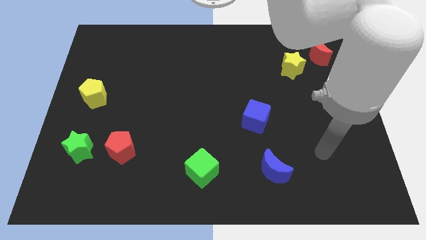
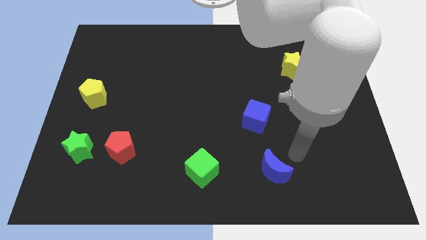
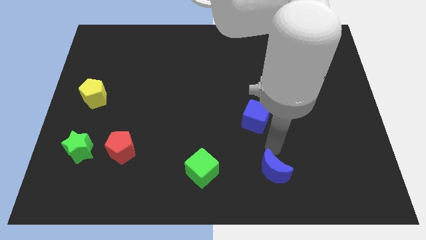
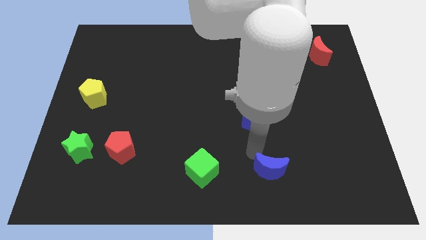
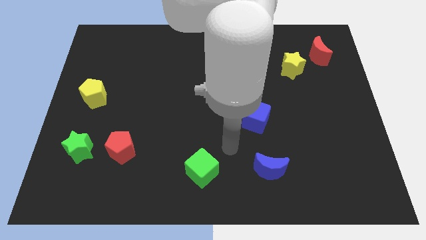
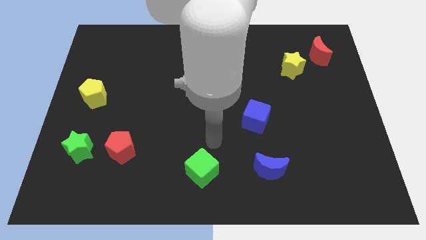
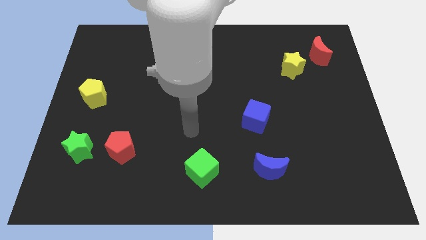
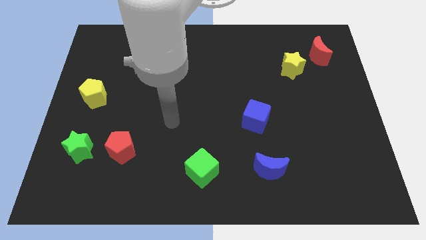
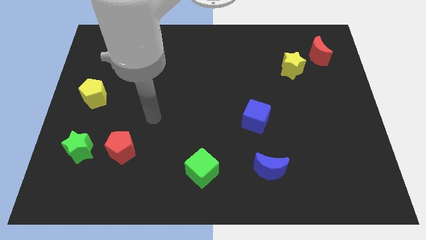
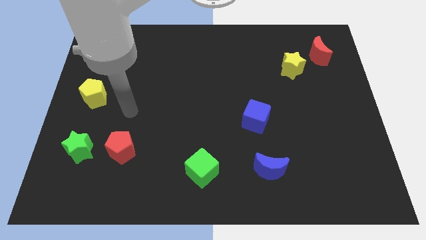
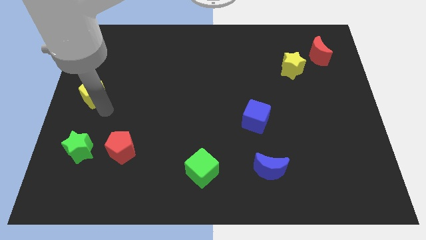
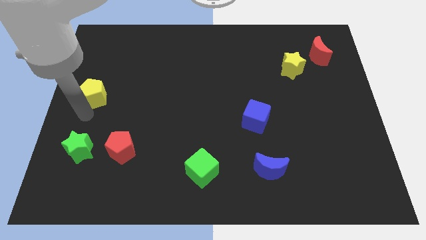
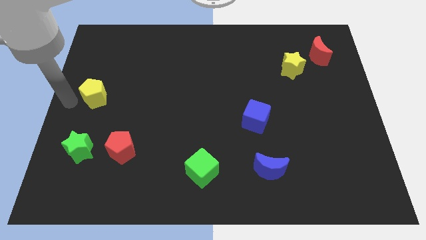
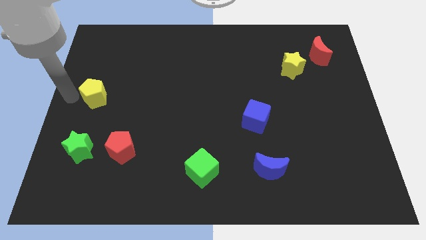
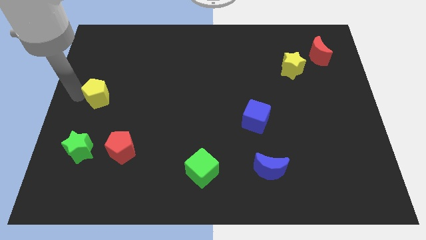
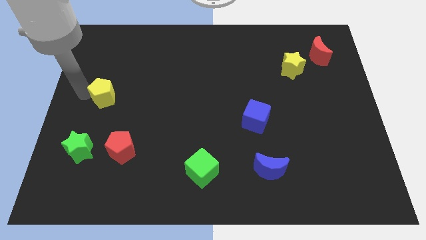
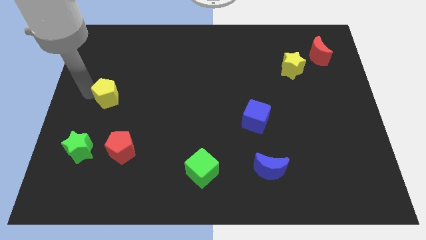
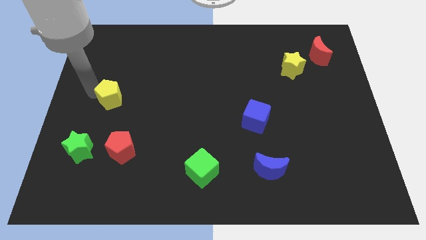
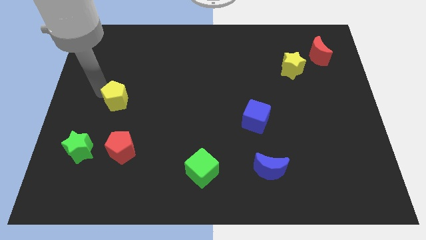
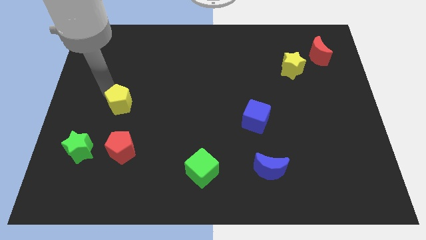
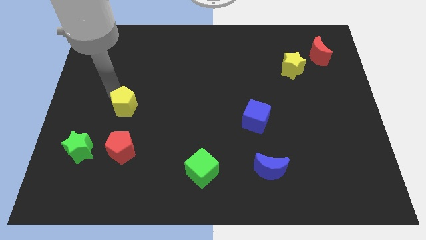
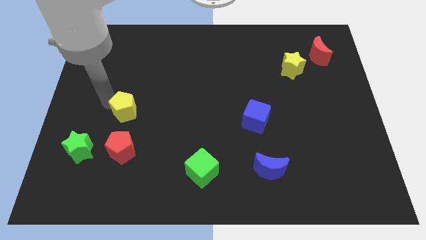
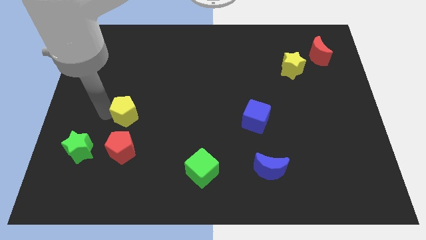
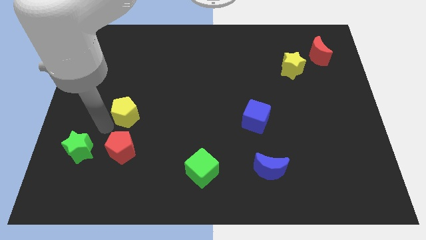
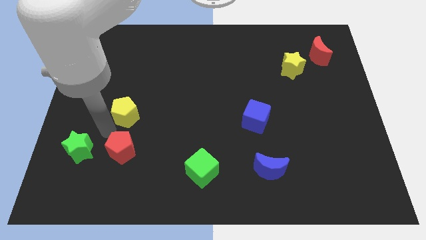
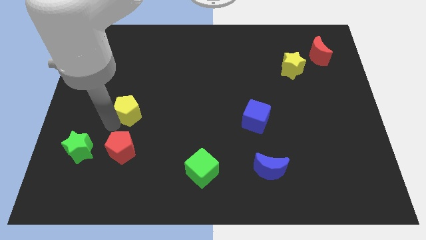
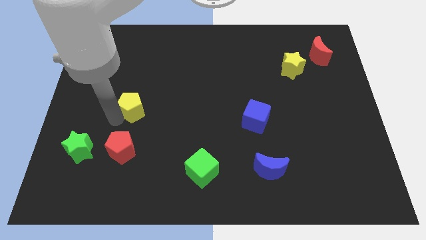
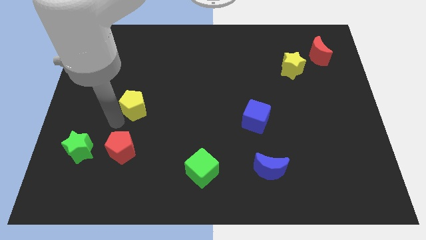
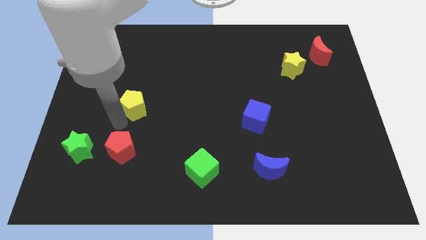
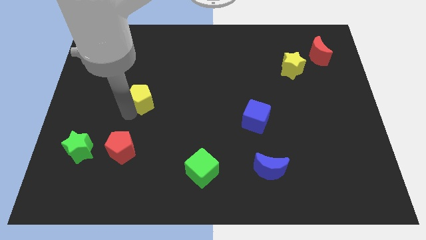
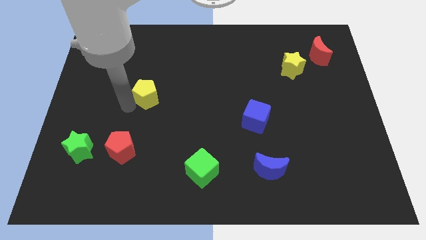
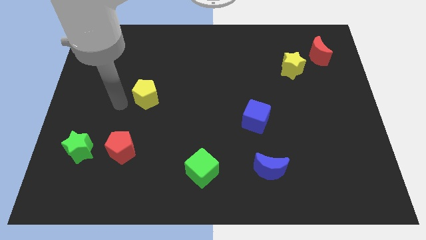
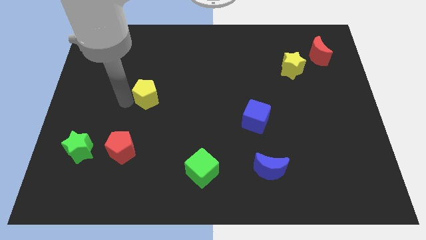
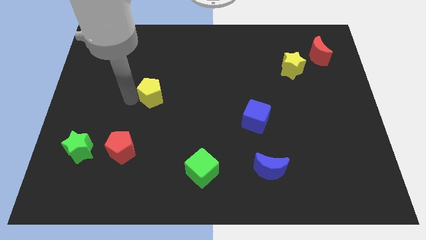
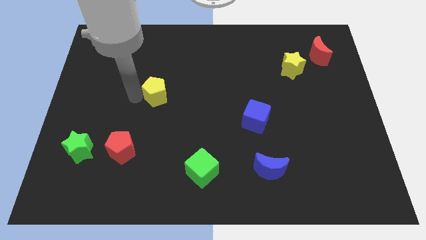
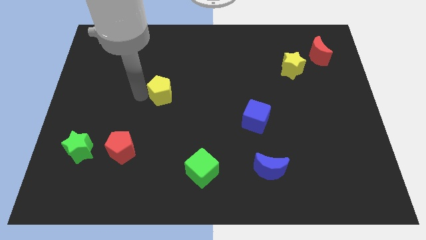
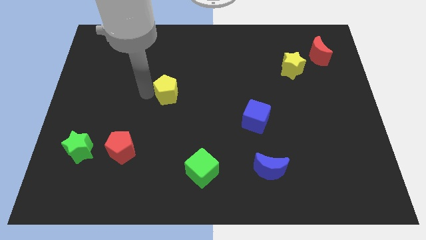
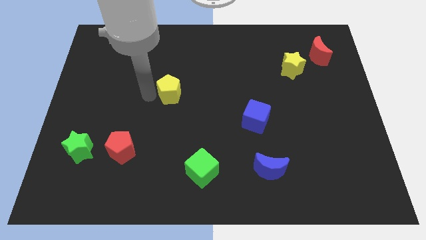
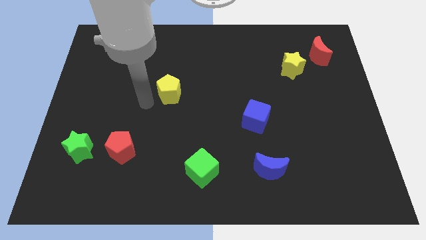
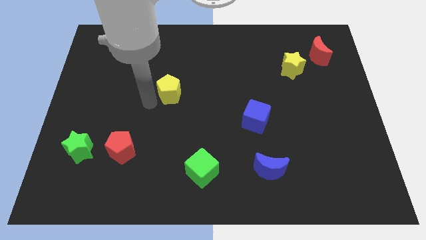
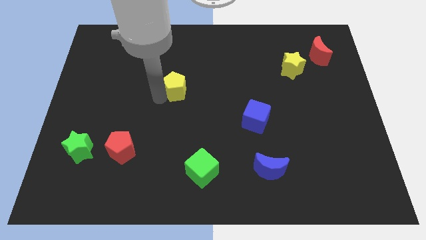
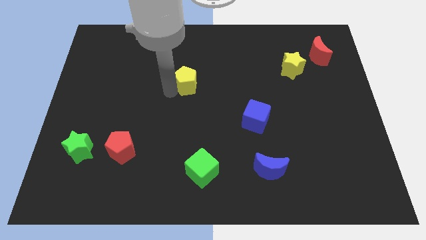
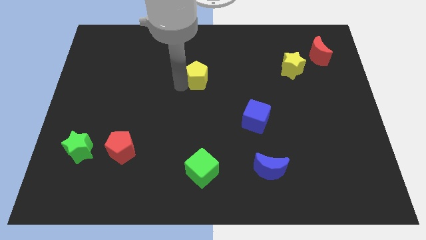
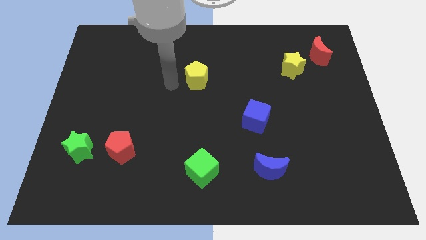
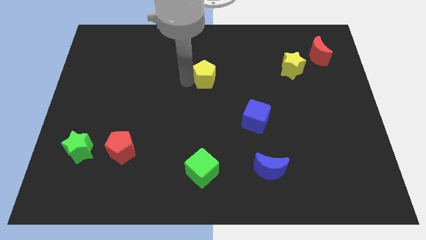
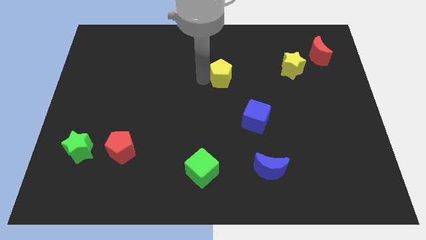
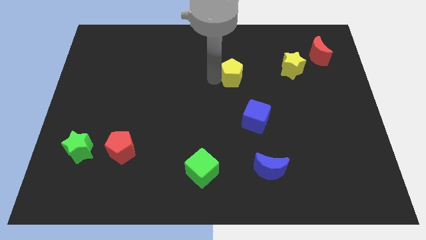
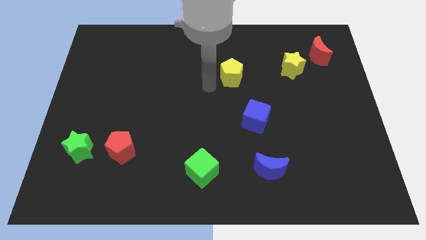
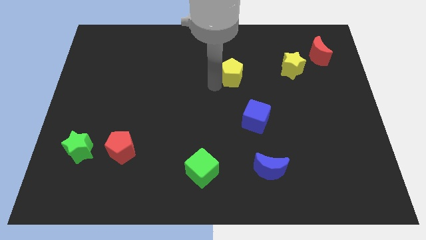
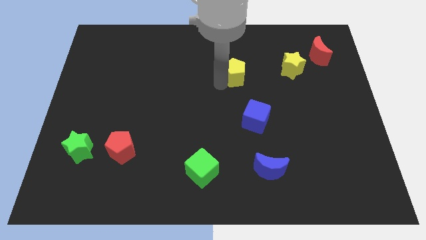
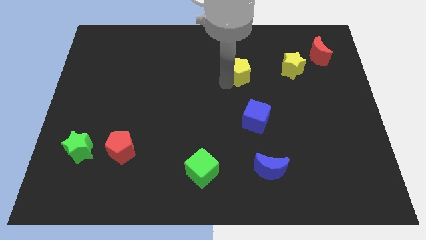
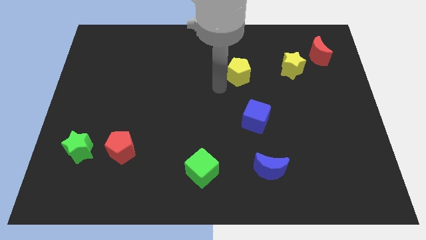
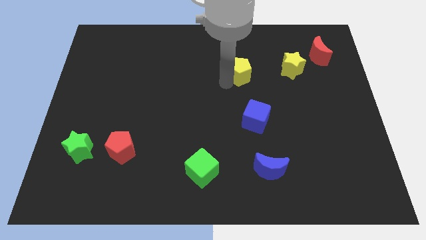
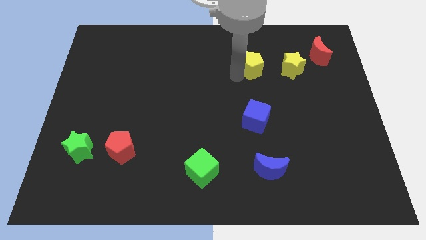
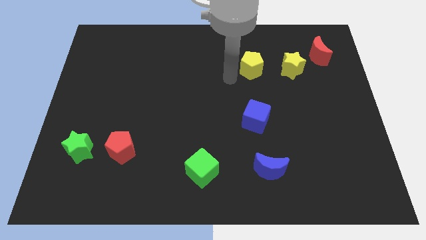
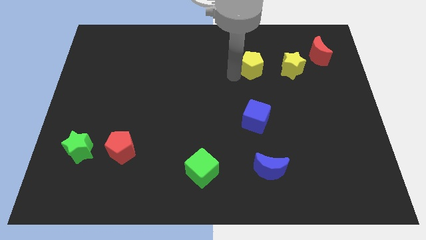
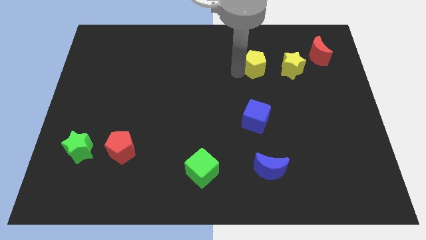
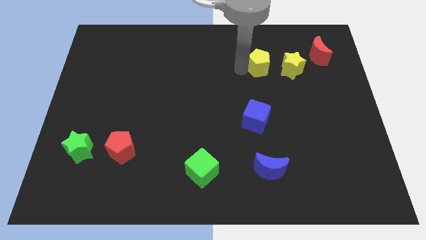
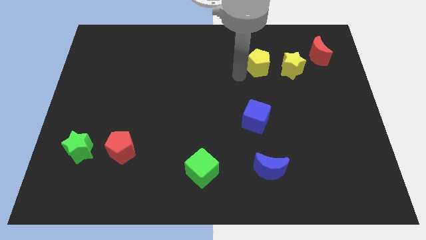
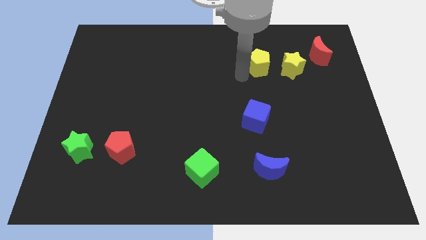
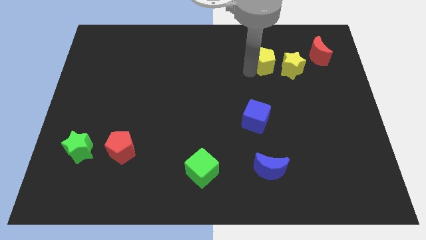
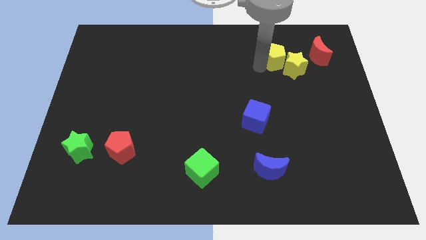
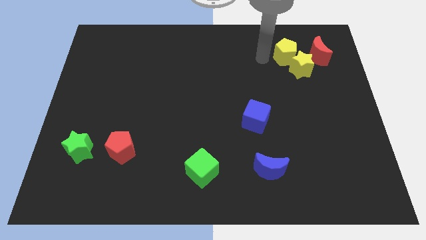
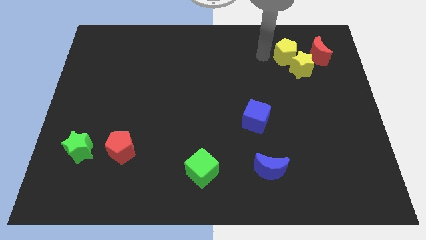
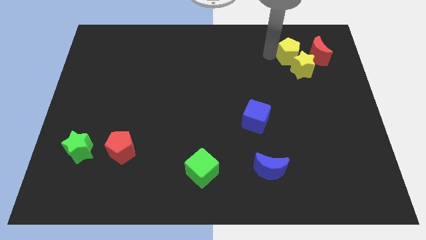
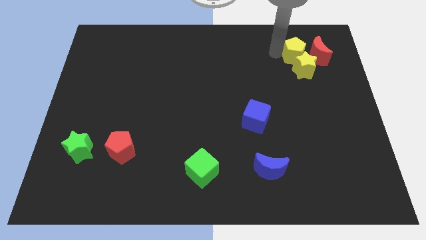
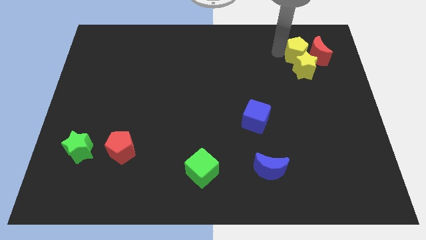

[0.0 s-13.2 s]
slide the yellow pentagon next to the red moon
